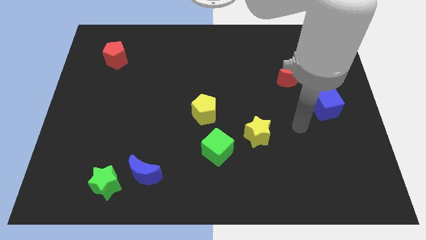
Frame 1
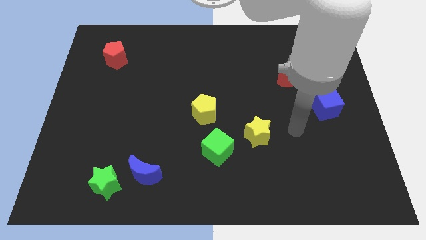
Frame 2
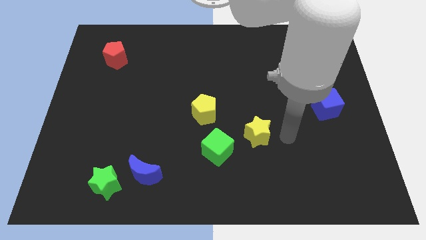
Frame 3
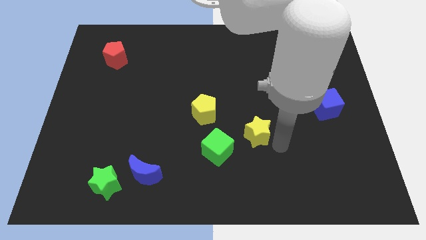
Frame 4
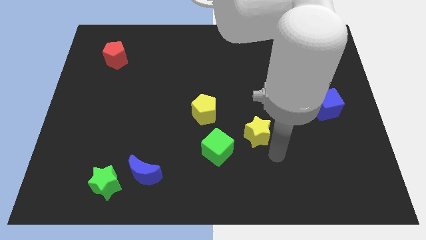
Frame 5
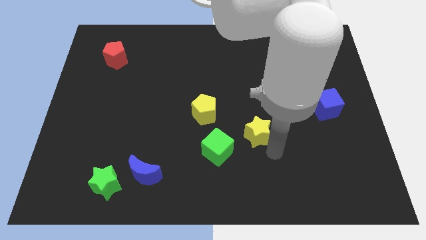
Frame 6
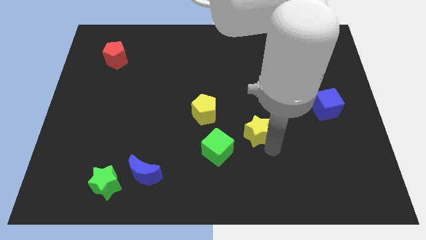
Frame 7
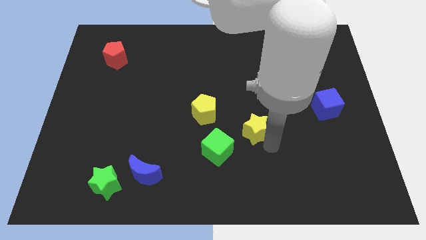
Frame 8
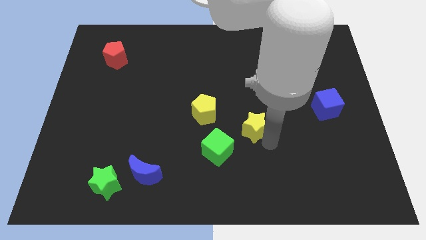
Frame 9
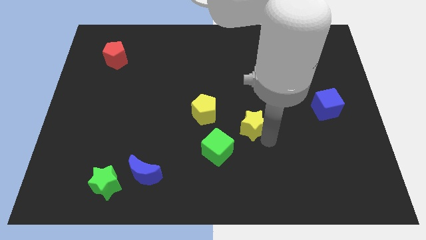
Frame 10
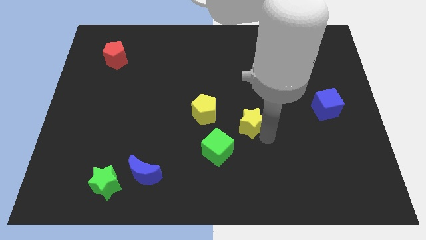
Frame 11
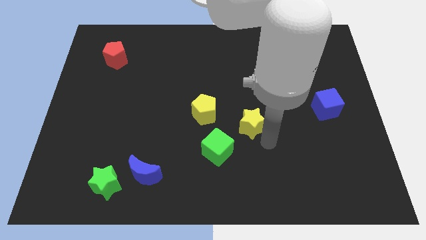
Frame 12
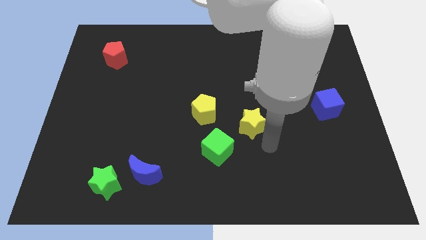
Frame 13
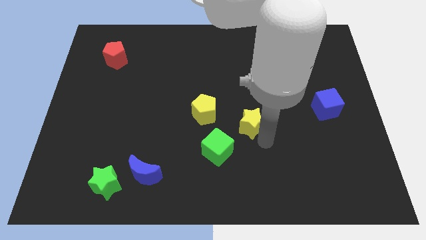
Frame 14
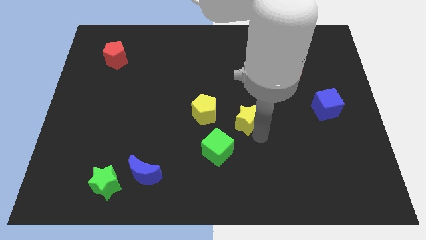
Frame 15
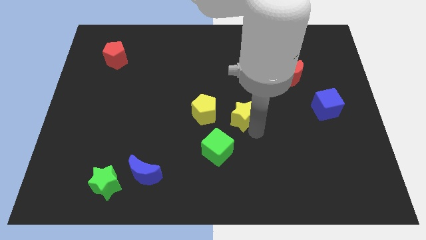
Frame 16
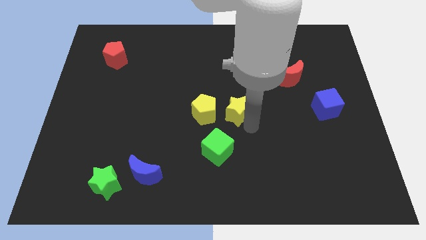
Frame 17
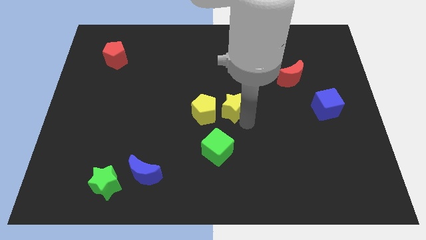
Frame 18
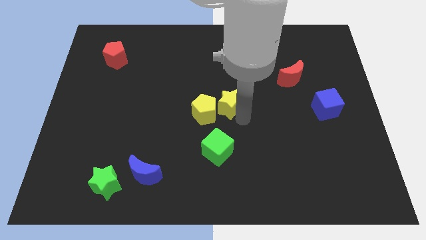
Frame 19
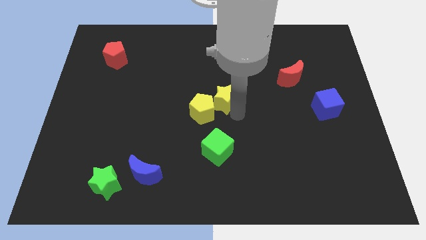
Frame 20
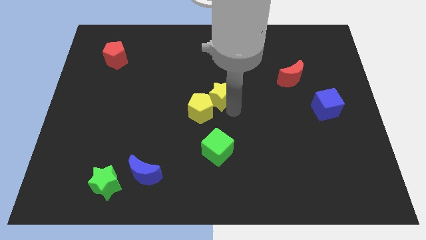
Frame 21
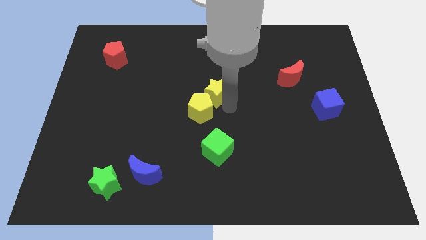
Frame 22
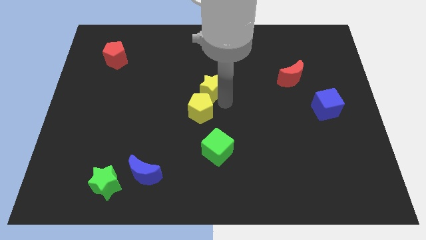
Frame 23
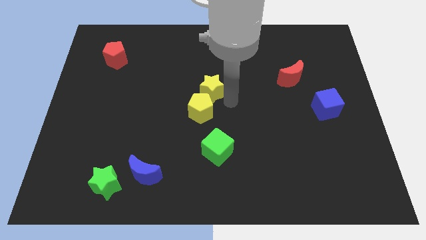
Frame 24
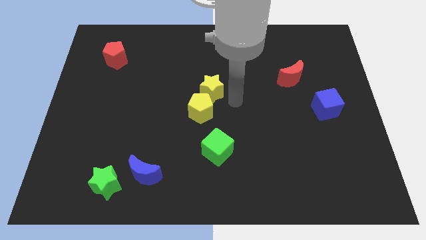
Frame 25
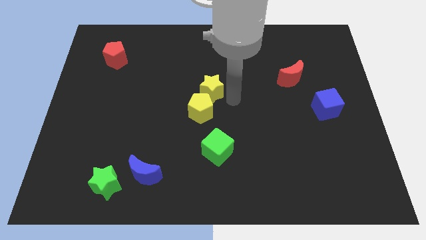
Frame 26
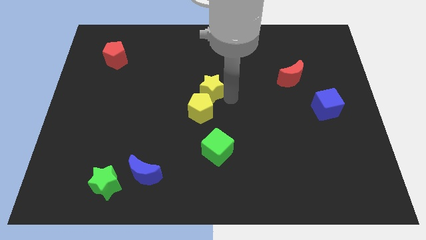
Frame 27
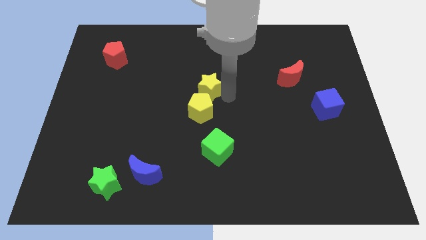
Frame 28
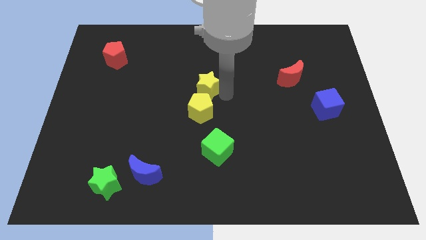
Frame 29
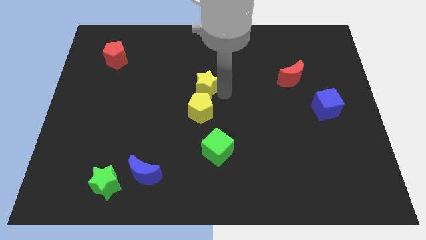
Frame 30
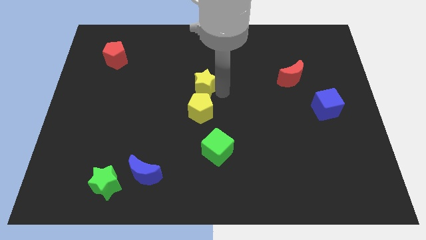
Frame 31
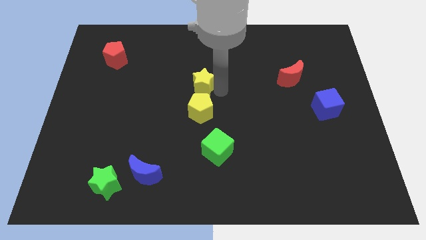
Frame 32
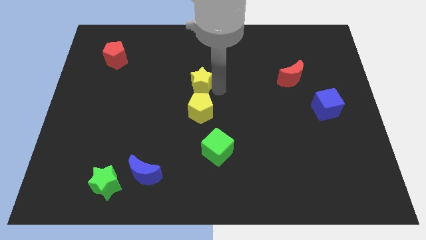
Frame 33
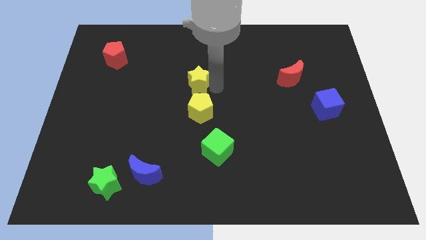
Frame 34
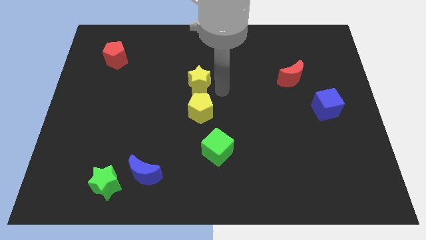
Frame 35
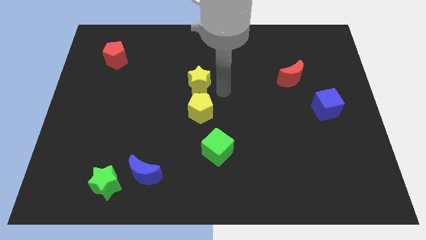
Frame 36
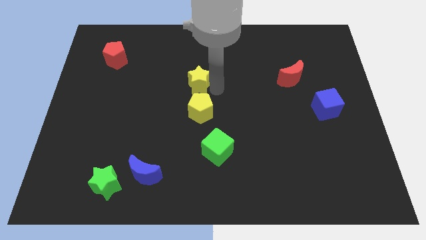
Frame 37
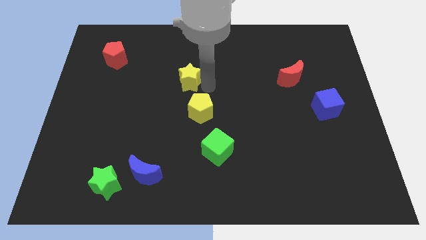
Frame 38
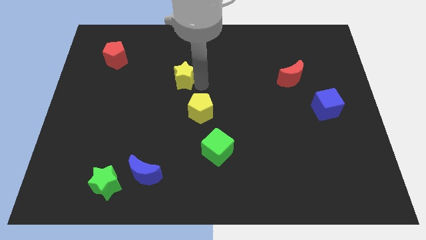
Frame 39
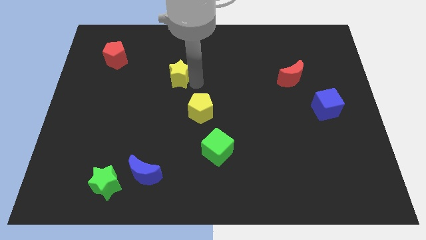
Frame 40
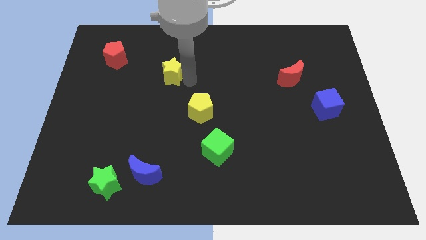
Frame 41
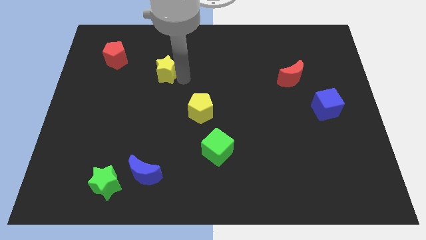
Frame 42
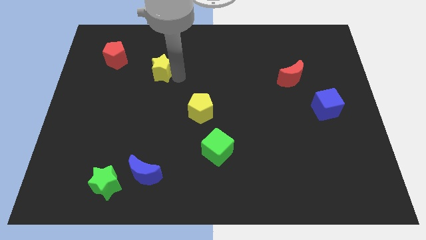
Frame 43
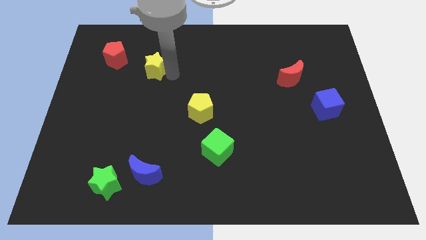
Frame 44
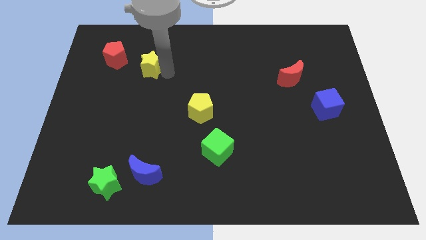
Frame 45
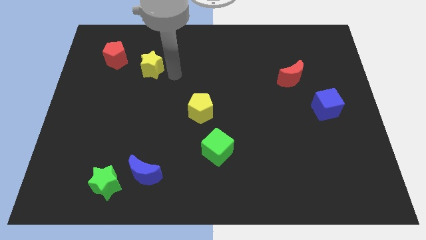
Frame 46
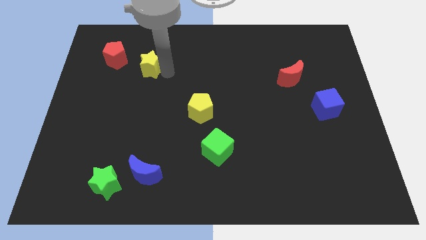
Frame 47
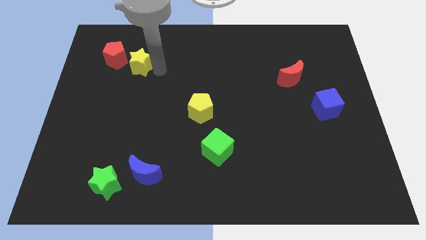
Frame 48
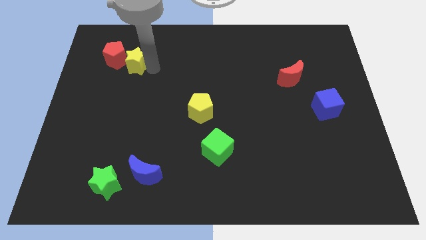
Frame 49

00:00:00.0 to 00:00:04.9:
push the yellow star to the red pentagon

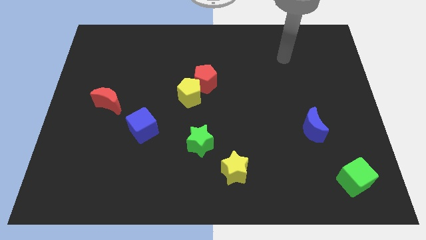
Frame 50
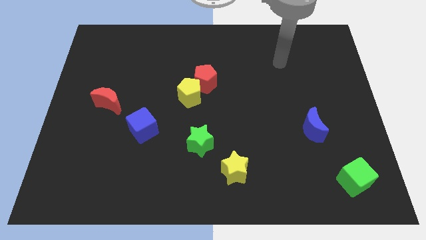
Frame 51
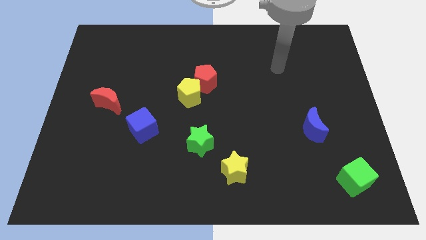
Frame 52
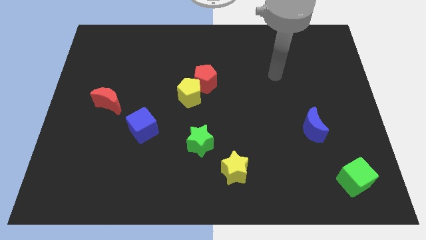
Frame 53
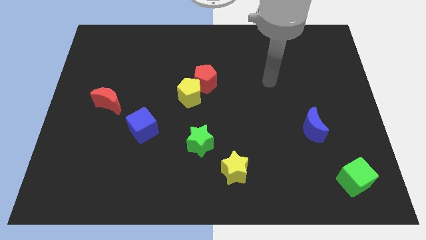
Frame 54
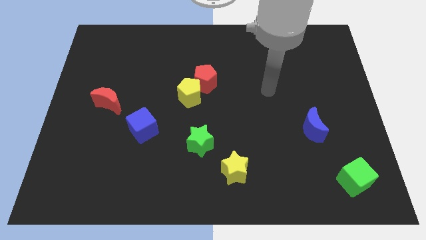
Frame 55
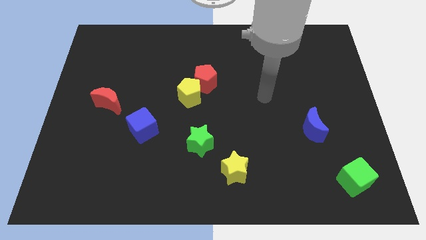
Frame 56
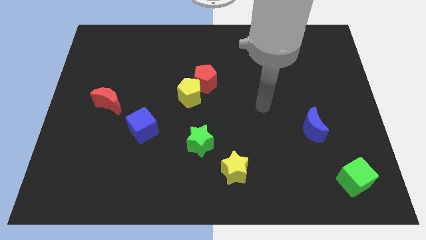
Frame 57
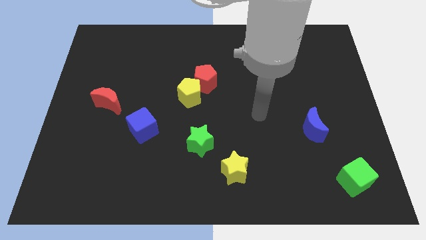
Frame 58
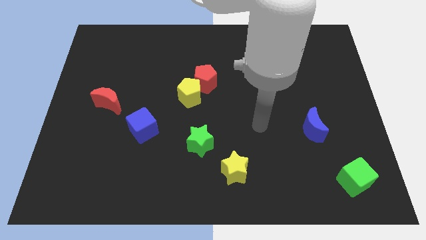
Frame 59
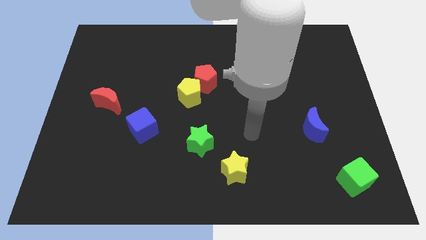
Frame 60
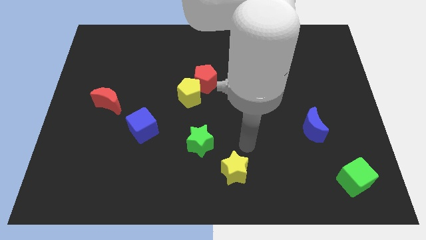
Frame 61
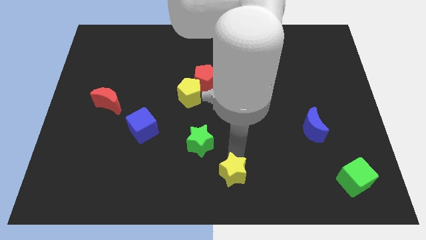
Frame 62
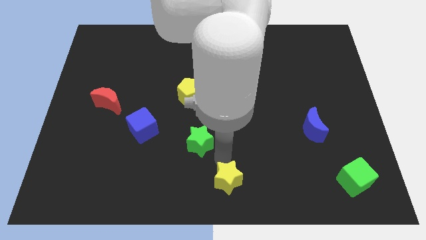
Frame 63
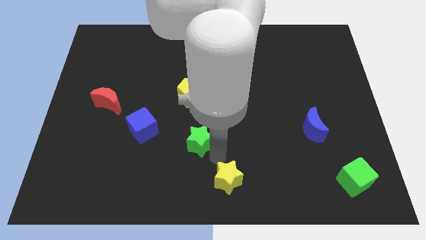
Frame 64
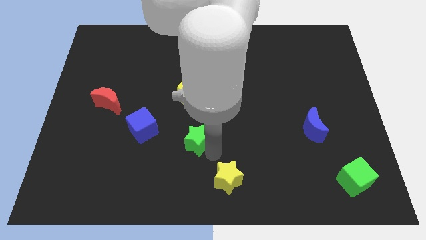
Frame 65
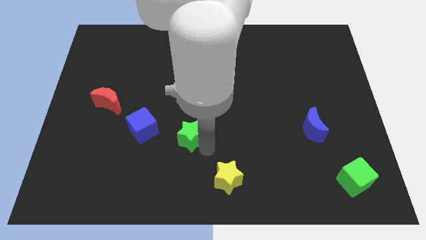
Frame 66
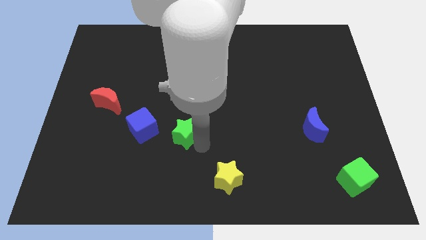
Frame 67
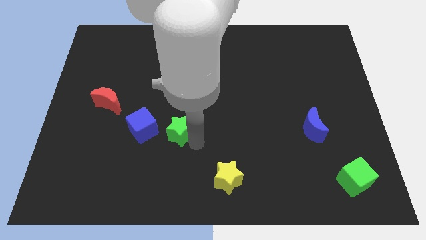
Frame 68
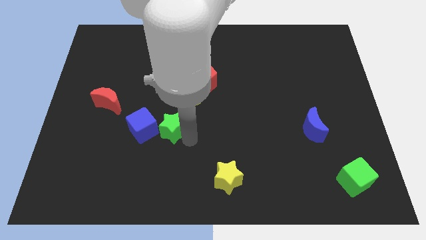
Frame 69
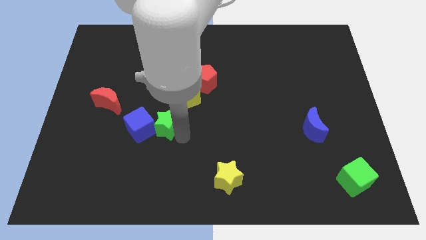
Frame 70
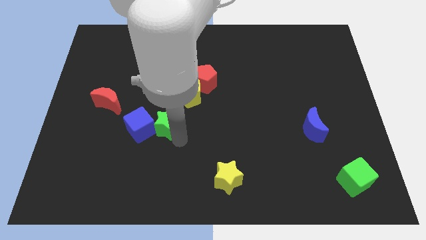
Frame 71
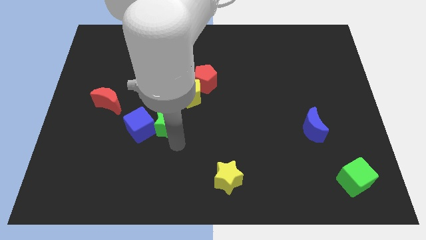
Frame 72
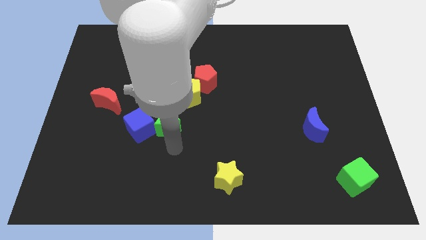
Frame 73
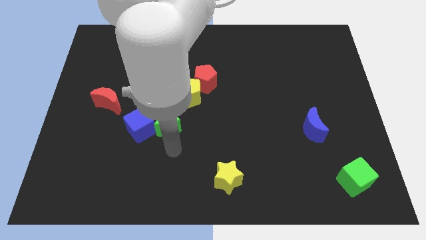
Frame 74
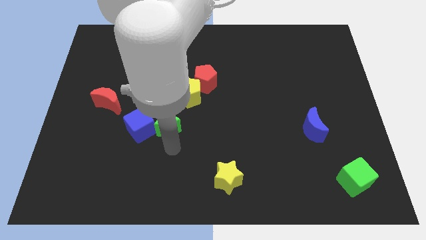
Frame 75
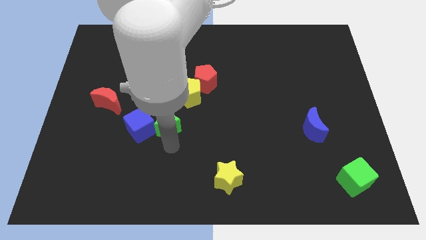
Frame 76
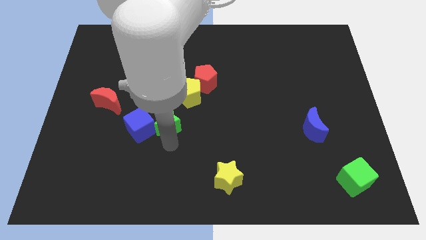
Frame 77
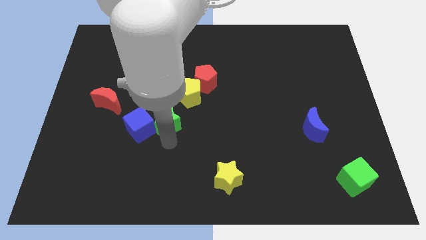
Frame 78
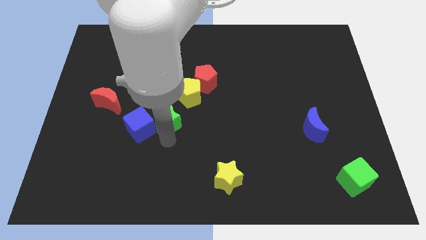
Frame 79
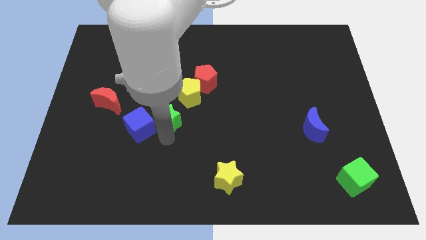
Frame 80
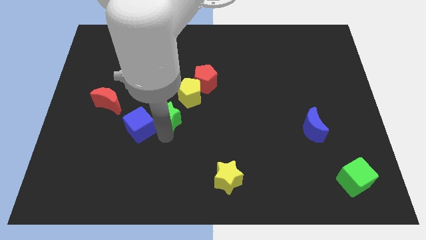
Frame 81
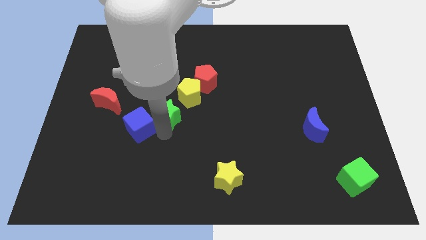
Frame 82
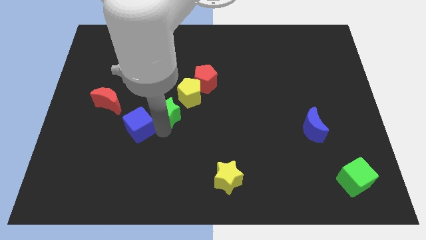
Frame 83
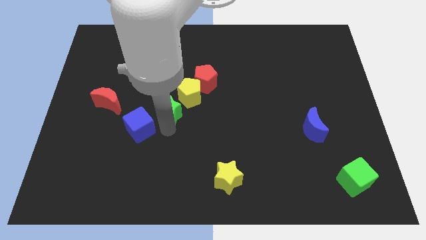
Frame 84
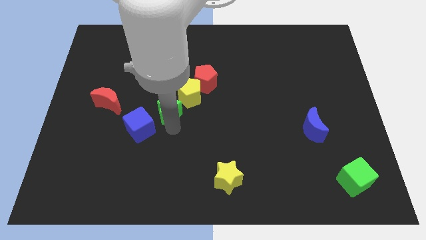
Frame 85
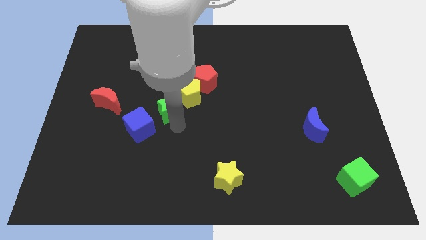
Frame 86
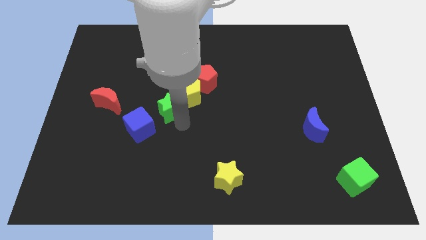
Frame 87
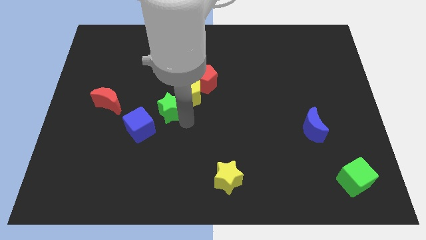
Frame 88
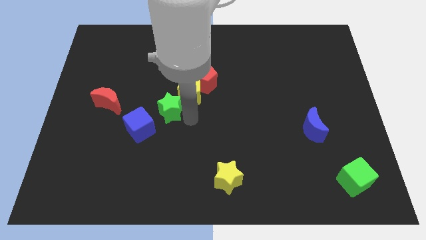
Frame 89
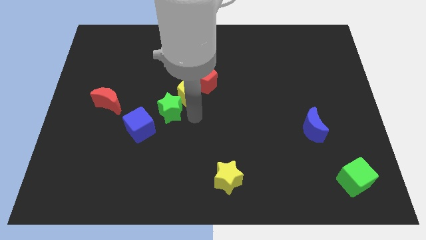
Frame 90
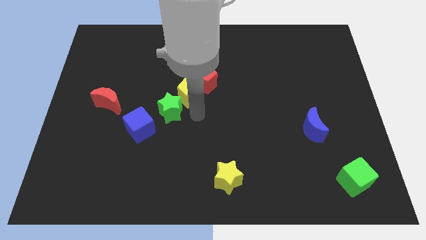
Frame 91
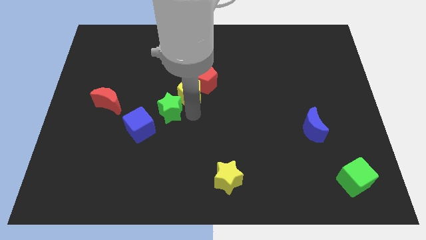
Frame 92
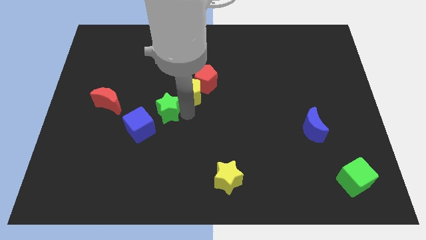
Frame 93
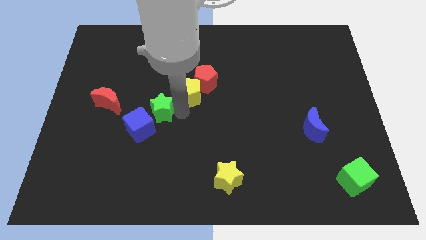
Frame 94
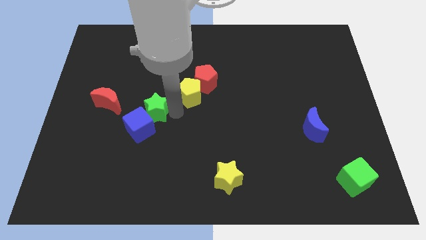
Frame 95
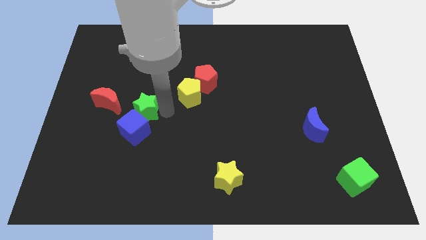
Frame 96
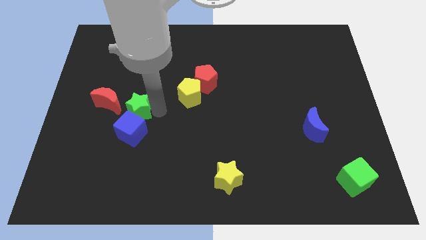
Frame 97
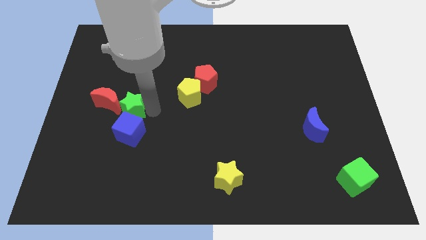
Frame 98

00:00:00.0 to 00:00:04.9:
push the green star next to the red moon
